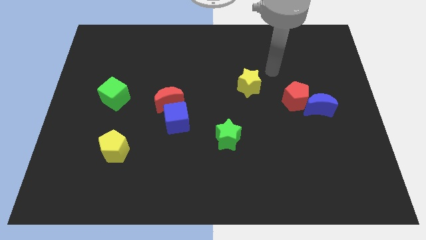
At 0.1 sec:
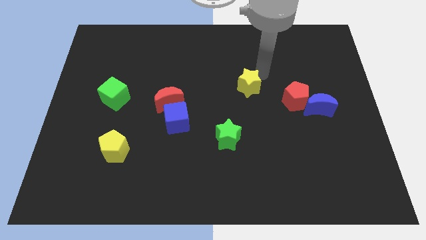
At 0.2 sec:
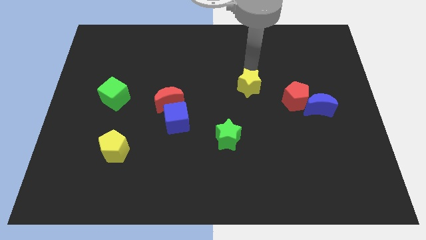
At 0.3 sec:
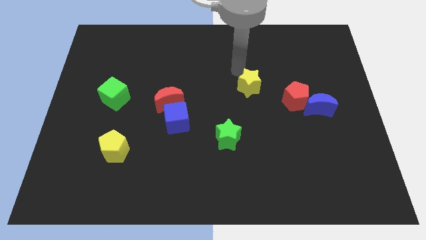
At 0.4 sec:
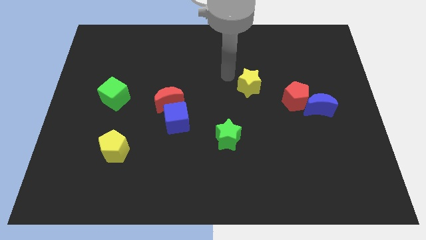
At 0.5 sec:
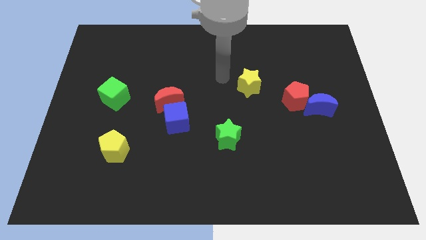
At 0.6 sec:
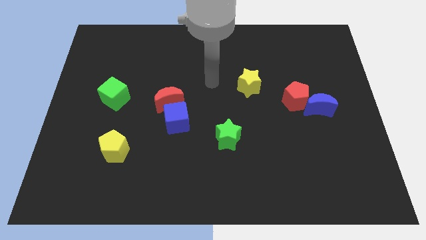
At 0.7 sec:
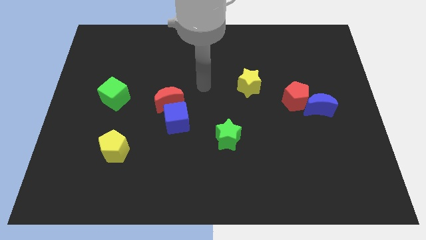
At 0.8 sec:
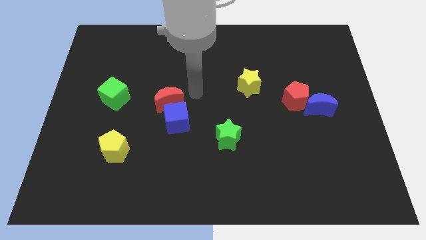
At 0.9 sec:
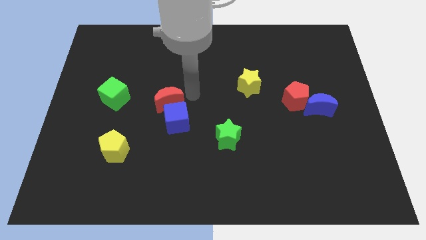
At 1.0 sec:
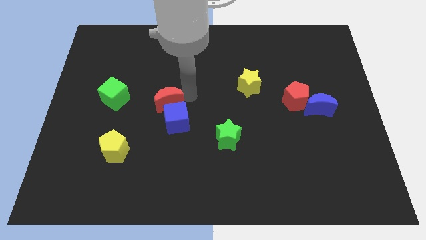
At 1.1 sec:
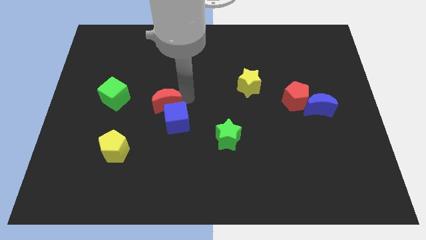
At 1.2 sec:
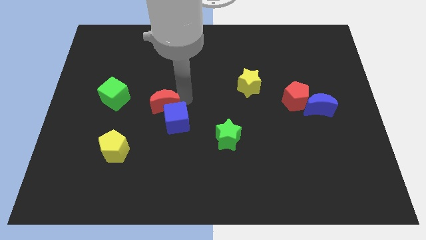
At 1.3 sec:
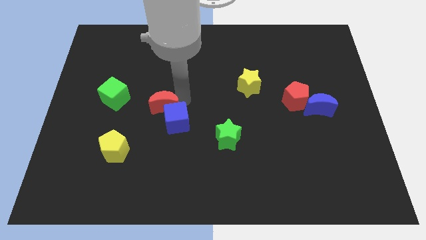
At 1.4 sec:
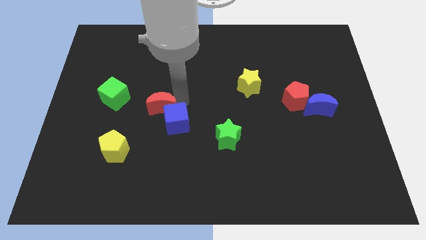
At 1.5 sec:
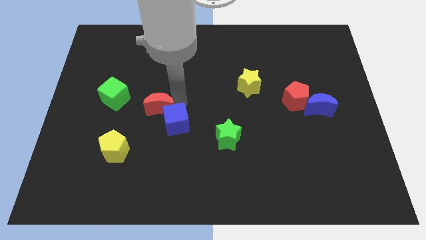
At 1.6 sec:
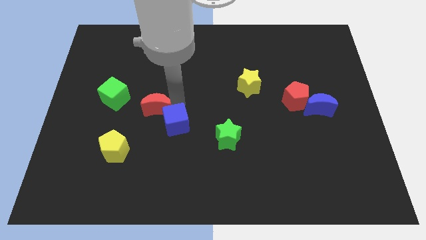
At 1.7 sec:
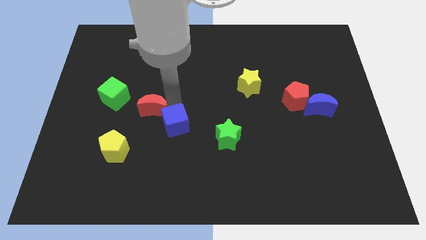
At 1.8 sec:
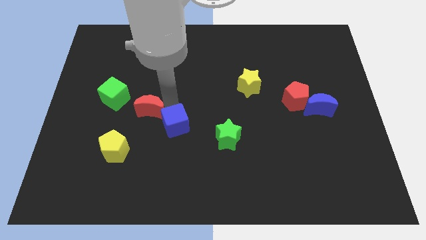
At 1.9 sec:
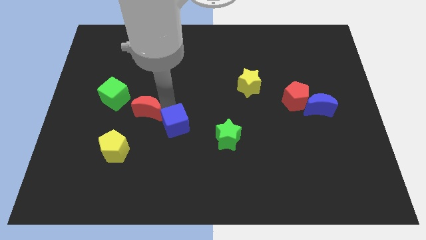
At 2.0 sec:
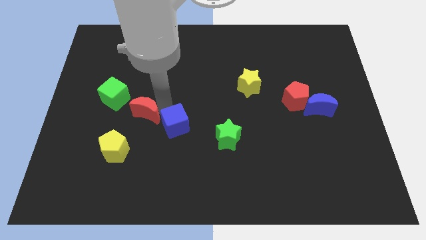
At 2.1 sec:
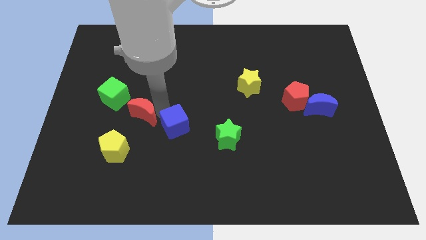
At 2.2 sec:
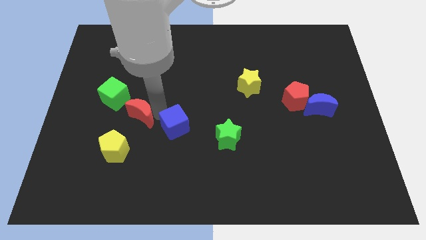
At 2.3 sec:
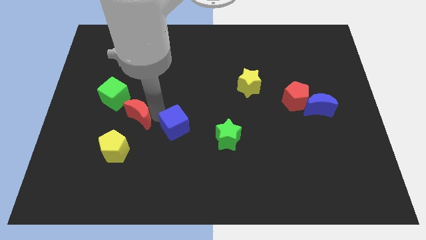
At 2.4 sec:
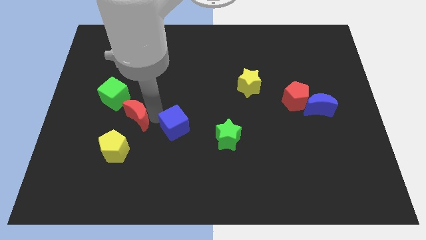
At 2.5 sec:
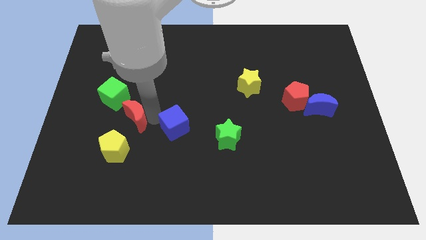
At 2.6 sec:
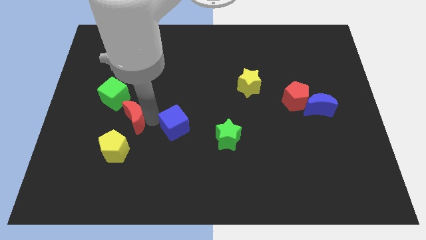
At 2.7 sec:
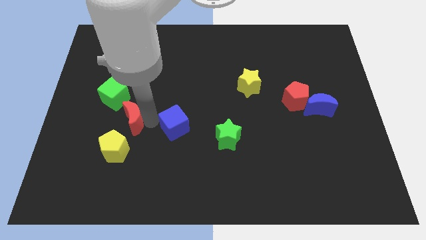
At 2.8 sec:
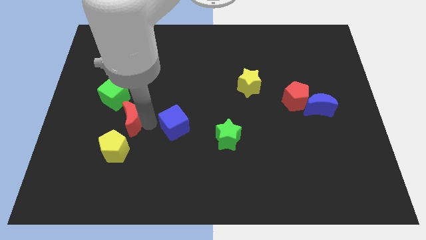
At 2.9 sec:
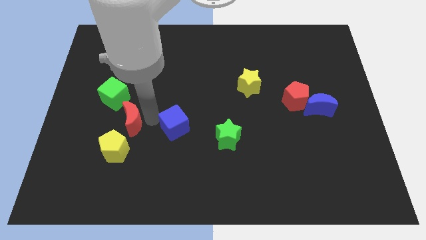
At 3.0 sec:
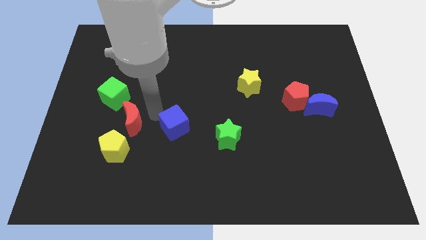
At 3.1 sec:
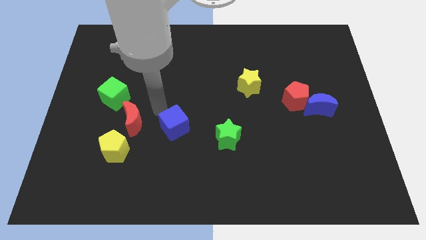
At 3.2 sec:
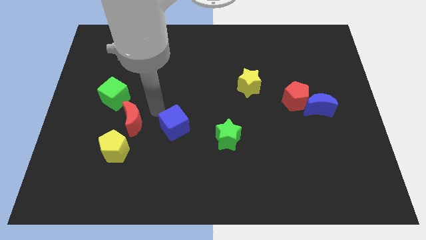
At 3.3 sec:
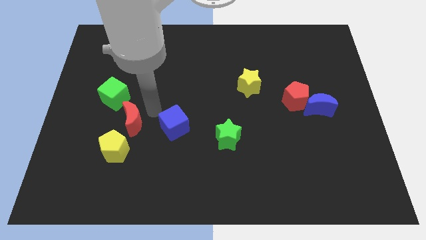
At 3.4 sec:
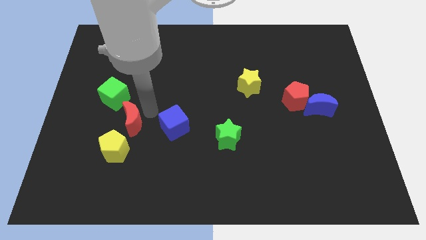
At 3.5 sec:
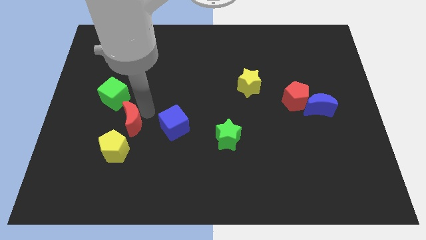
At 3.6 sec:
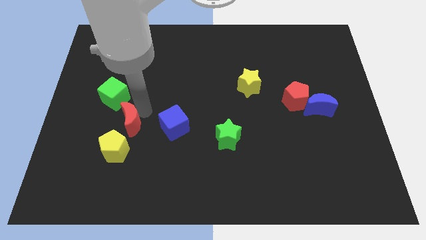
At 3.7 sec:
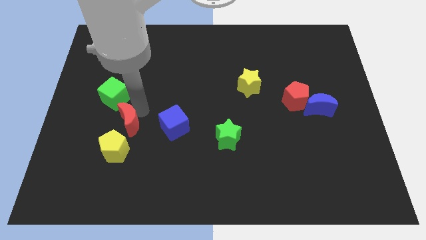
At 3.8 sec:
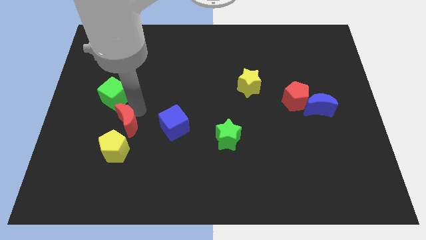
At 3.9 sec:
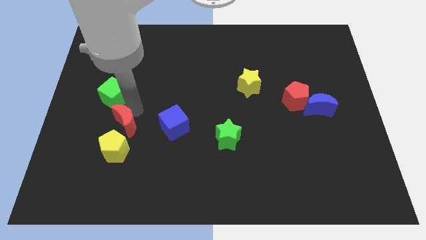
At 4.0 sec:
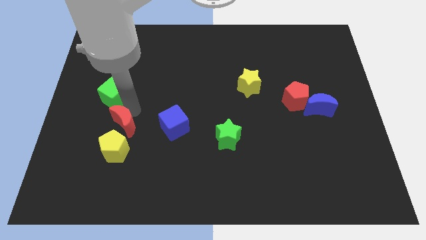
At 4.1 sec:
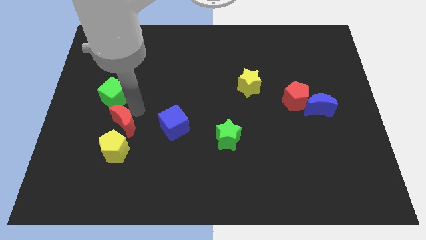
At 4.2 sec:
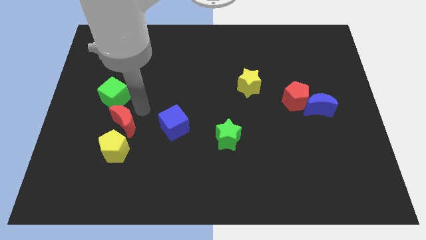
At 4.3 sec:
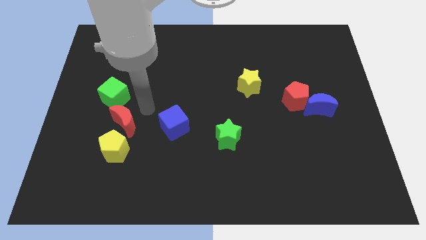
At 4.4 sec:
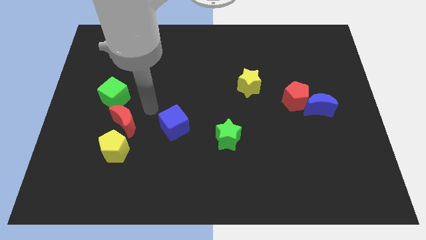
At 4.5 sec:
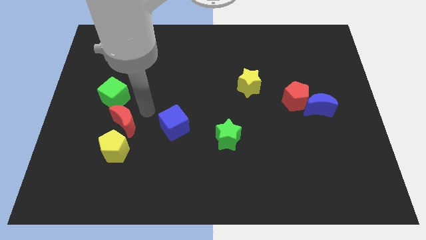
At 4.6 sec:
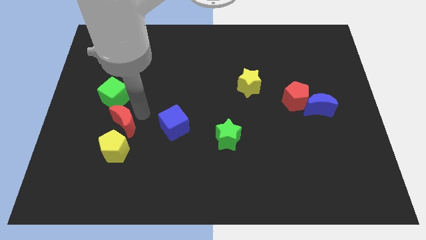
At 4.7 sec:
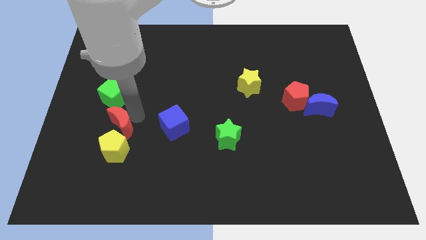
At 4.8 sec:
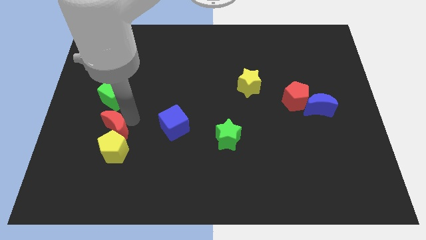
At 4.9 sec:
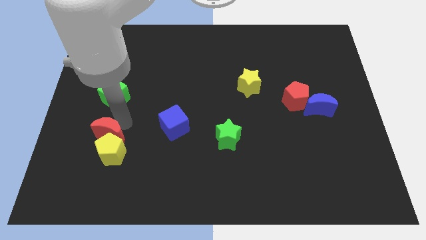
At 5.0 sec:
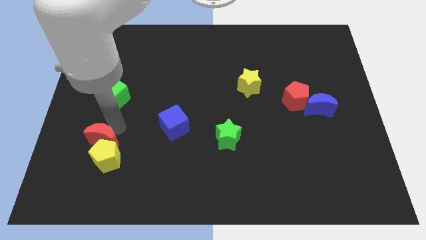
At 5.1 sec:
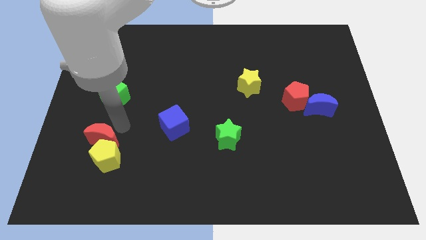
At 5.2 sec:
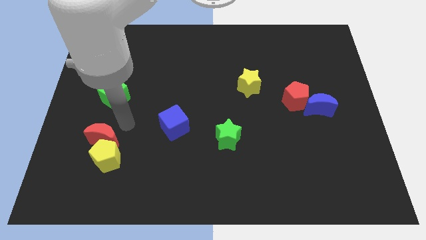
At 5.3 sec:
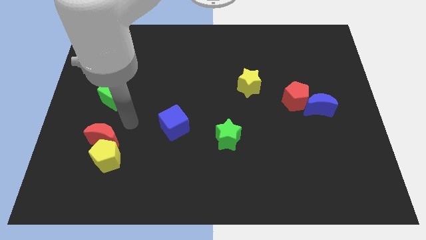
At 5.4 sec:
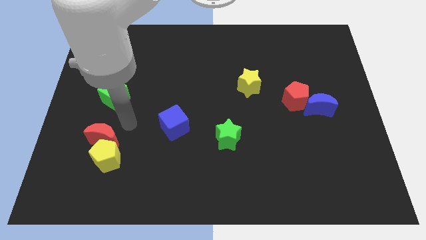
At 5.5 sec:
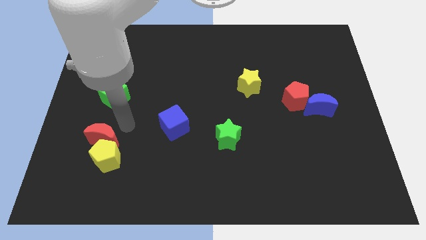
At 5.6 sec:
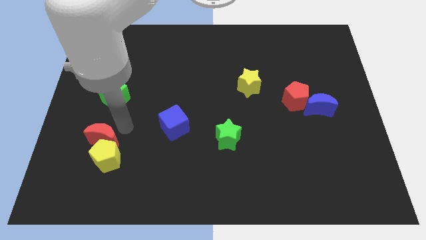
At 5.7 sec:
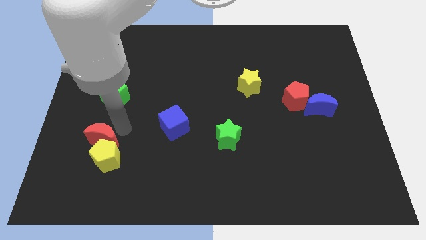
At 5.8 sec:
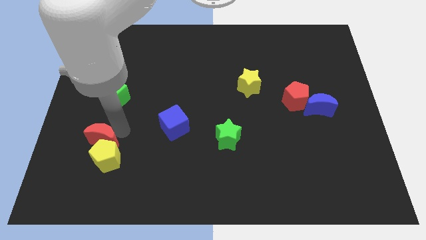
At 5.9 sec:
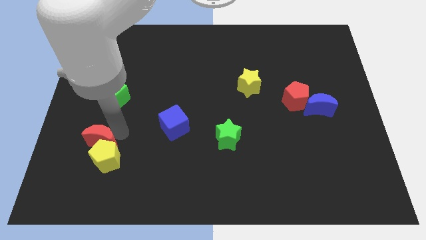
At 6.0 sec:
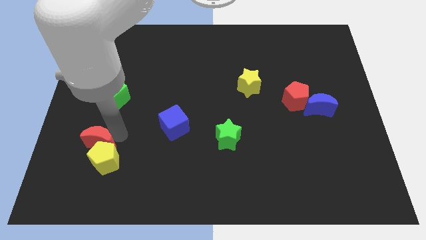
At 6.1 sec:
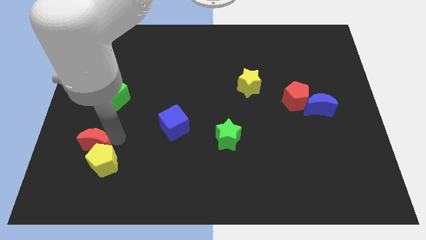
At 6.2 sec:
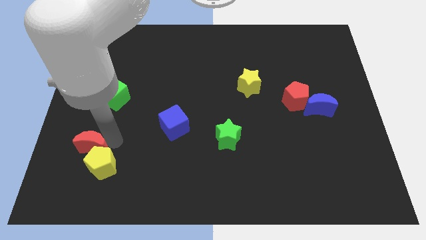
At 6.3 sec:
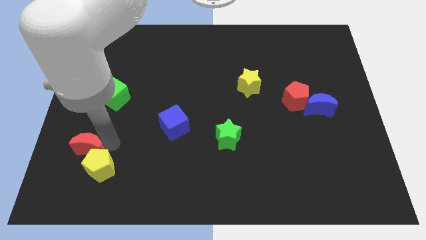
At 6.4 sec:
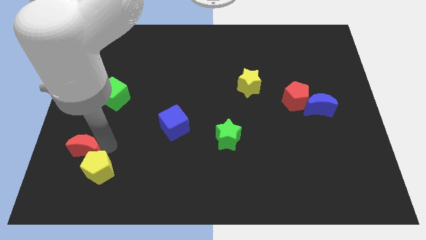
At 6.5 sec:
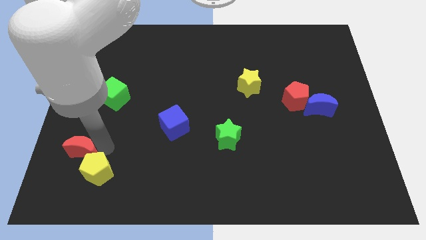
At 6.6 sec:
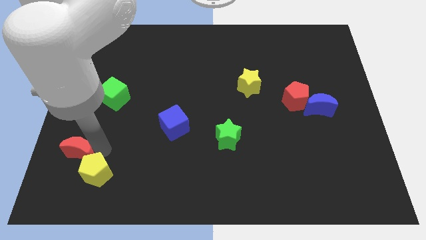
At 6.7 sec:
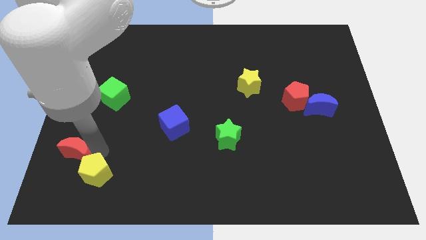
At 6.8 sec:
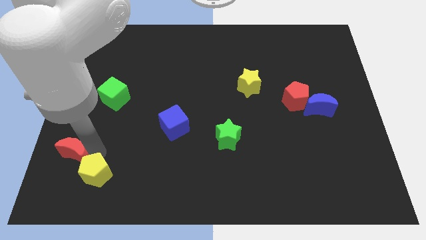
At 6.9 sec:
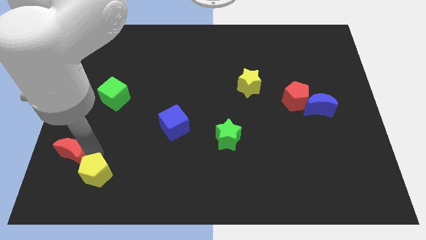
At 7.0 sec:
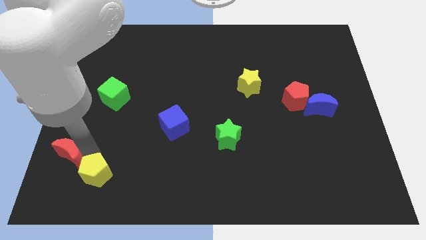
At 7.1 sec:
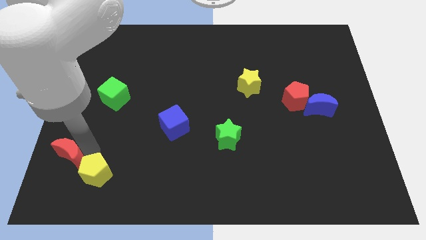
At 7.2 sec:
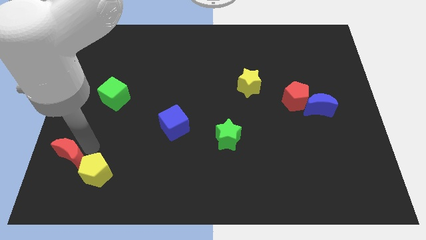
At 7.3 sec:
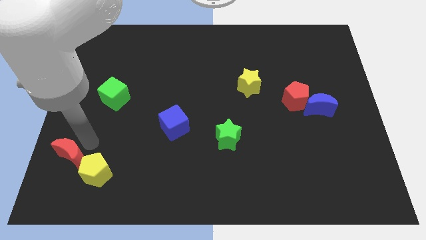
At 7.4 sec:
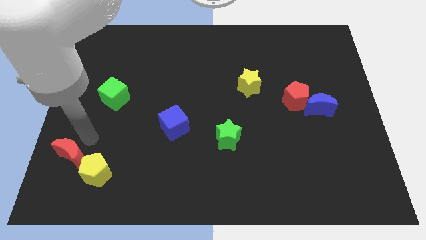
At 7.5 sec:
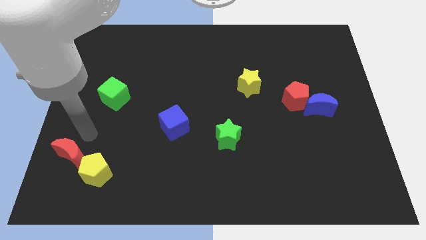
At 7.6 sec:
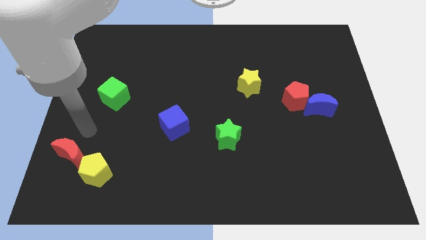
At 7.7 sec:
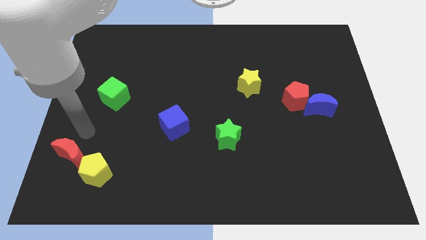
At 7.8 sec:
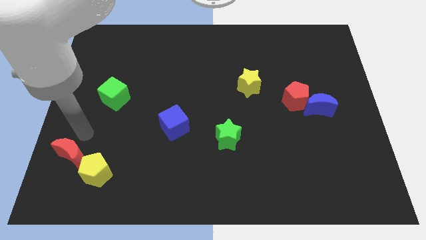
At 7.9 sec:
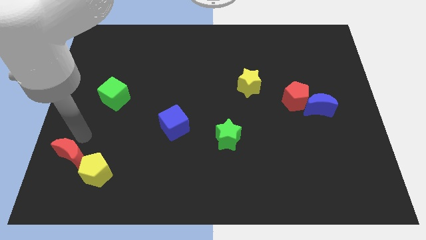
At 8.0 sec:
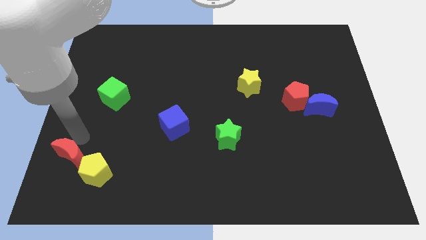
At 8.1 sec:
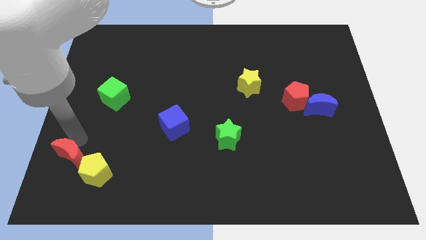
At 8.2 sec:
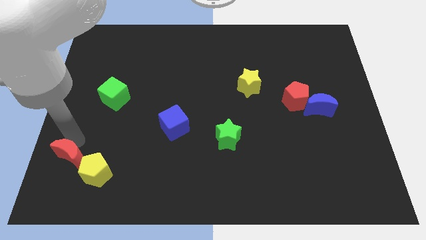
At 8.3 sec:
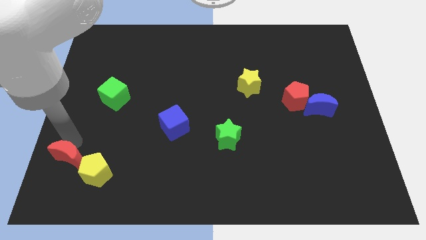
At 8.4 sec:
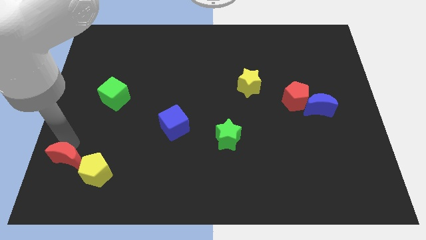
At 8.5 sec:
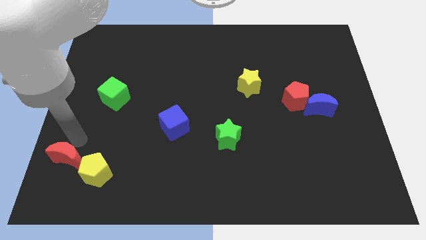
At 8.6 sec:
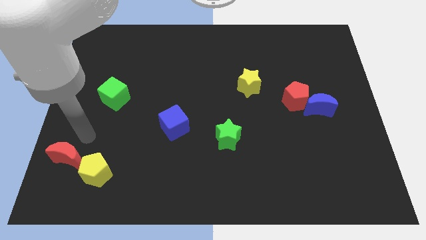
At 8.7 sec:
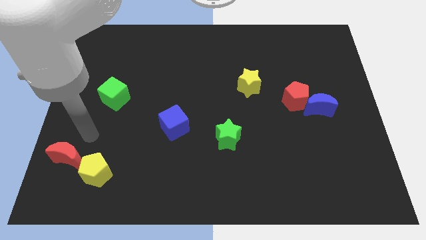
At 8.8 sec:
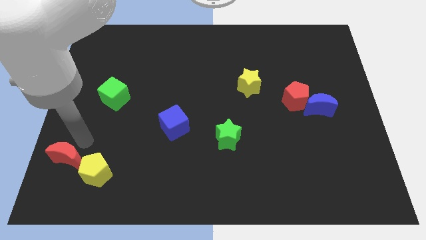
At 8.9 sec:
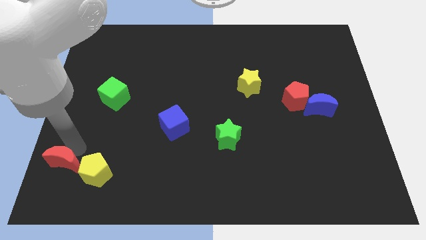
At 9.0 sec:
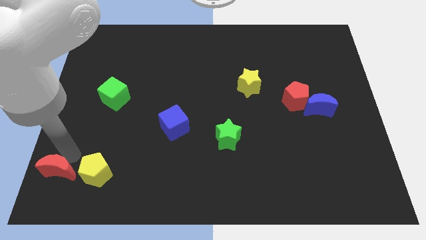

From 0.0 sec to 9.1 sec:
put the red moon to the bottom left of the board
